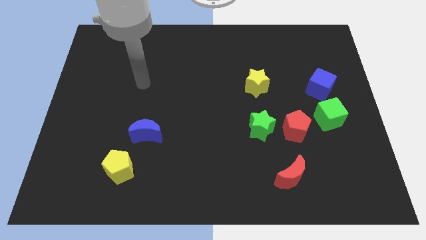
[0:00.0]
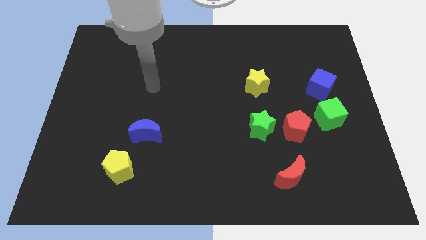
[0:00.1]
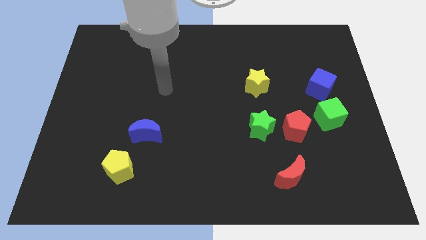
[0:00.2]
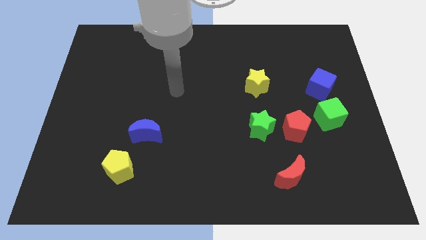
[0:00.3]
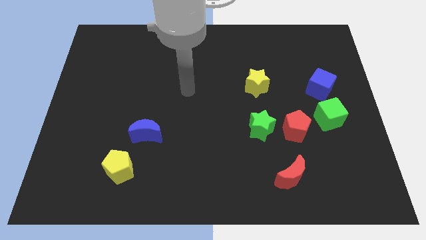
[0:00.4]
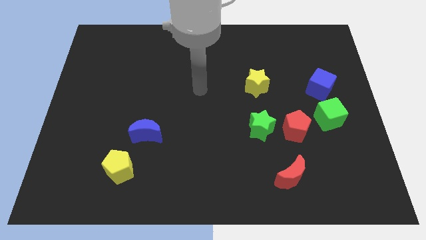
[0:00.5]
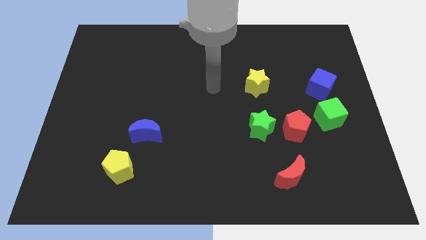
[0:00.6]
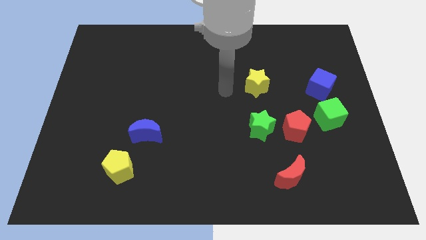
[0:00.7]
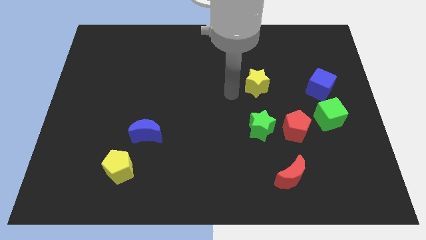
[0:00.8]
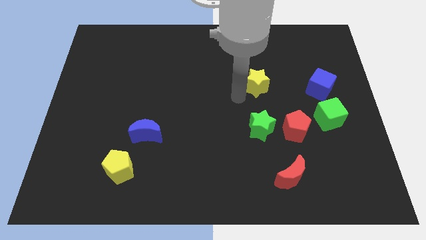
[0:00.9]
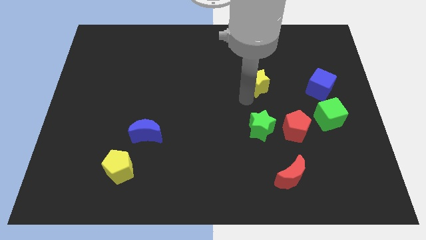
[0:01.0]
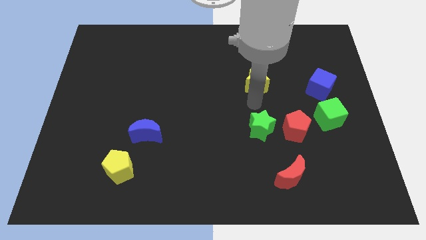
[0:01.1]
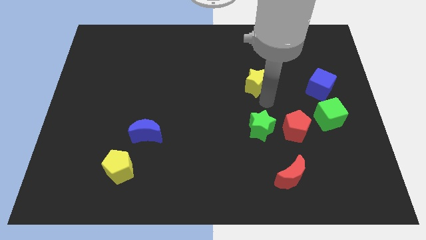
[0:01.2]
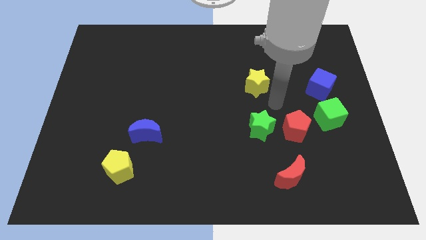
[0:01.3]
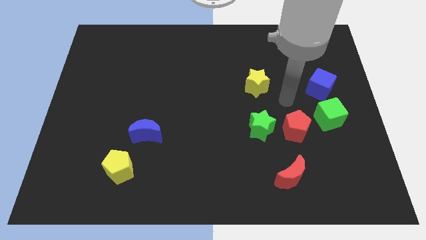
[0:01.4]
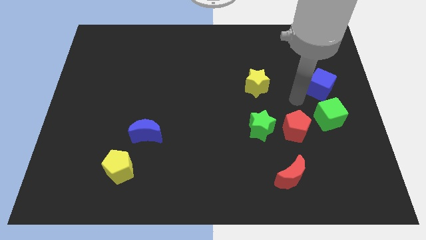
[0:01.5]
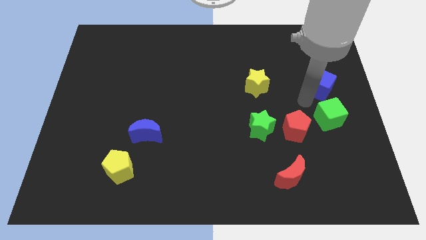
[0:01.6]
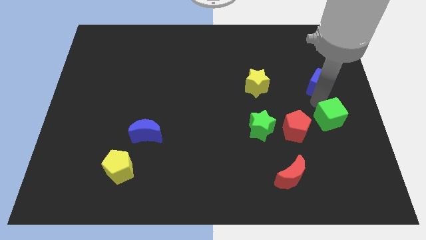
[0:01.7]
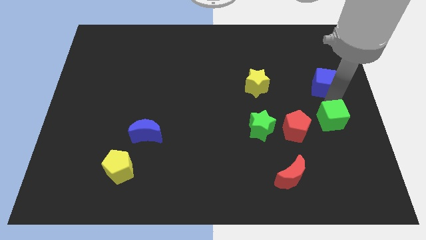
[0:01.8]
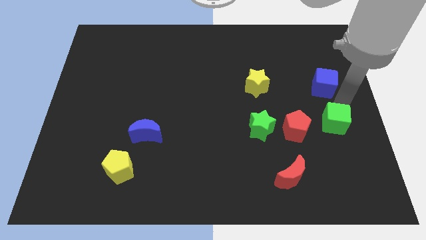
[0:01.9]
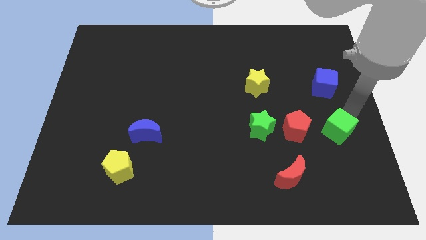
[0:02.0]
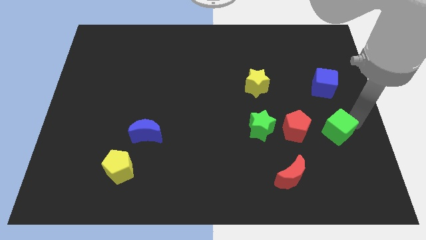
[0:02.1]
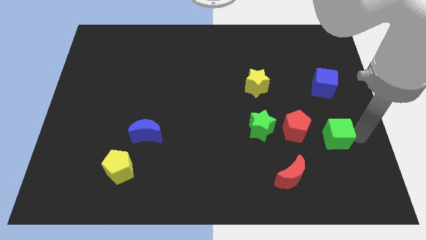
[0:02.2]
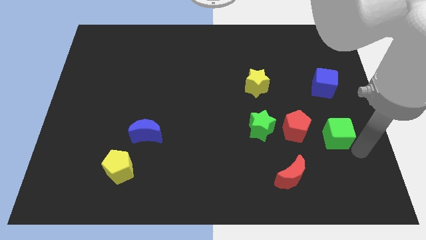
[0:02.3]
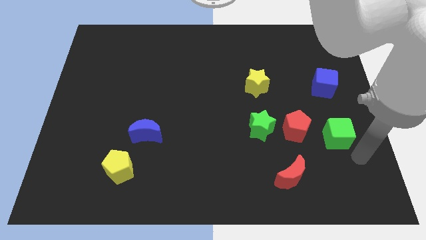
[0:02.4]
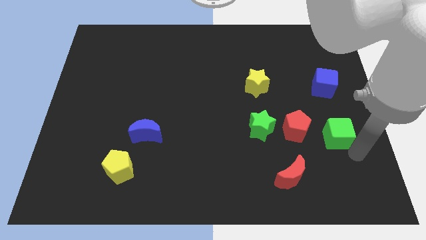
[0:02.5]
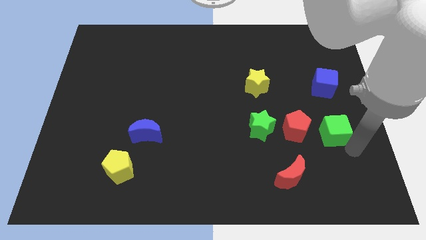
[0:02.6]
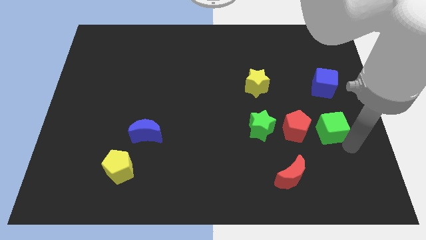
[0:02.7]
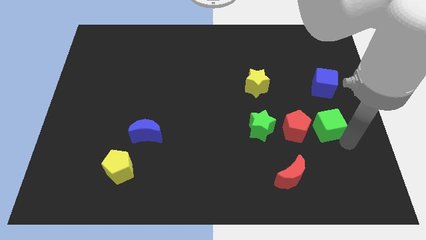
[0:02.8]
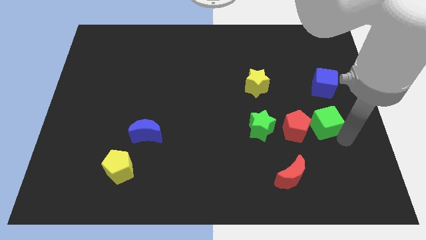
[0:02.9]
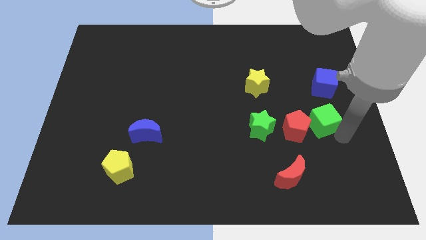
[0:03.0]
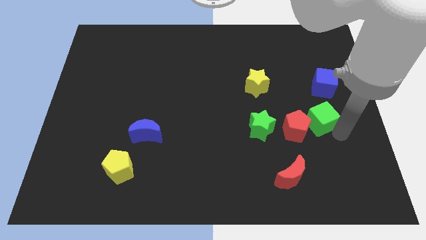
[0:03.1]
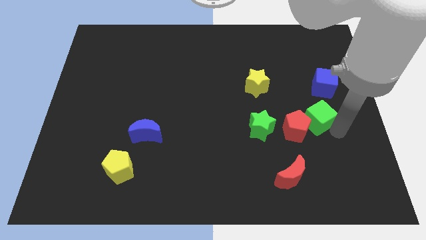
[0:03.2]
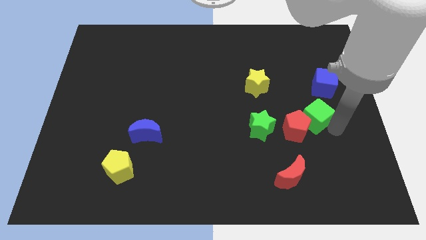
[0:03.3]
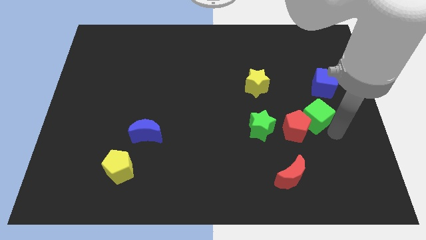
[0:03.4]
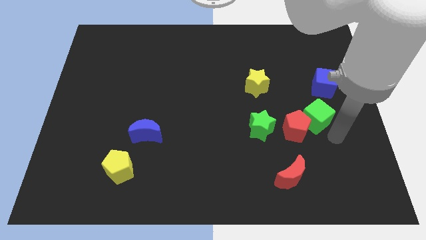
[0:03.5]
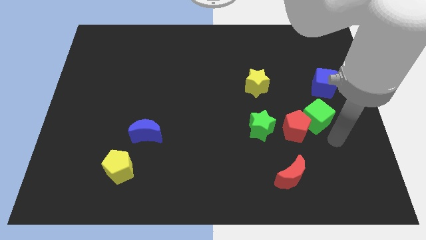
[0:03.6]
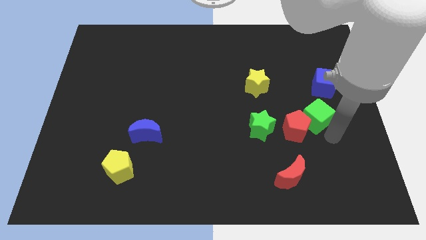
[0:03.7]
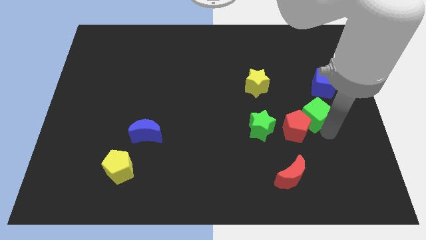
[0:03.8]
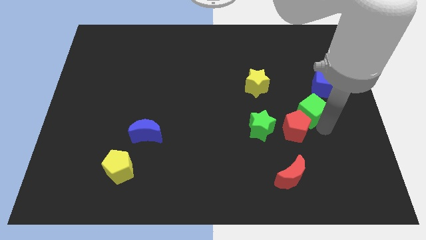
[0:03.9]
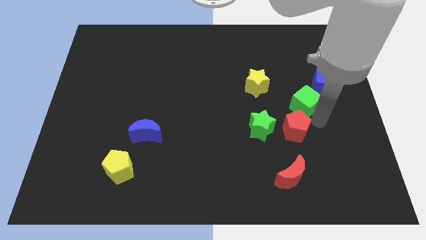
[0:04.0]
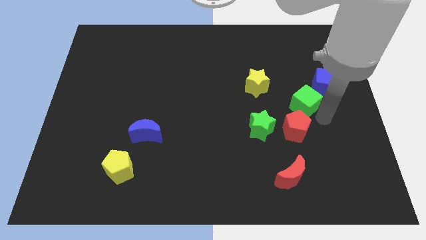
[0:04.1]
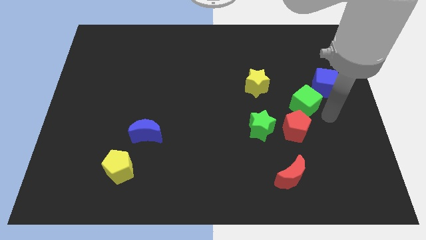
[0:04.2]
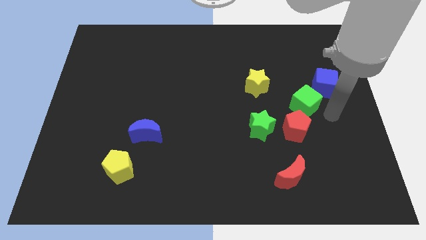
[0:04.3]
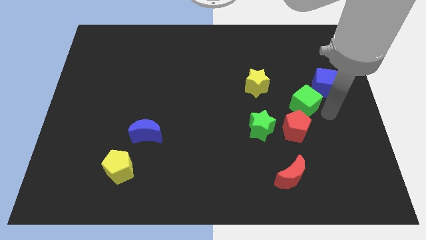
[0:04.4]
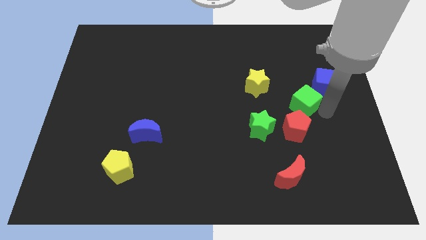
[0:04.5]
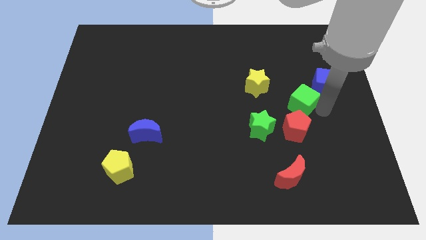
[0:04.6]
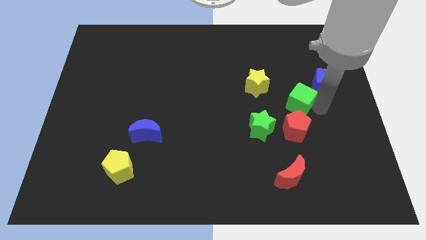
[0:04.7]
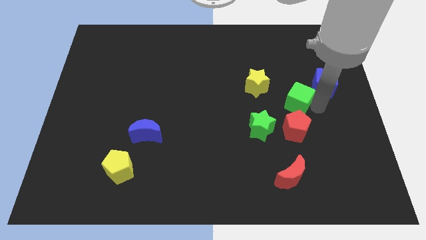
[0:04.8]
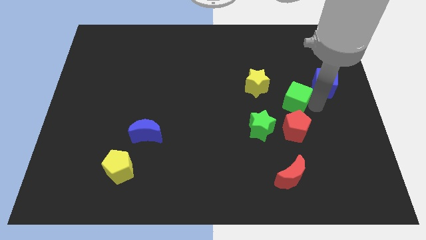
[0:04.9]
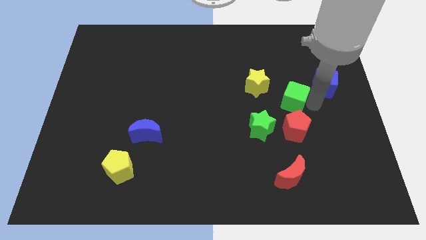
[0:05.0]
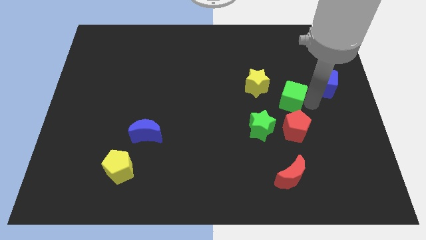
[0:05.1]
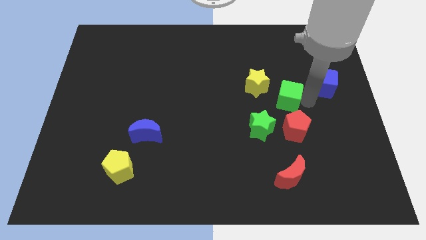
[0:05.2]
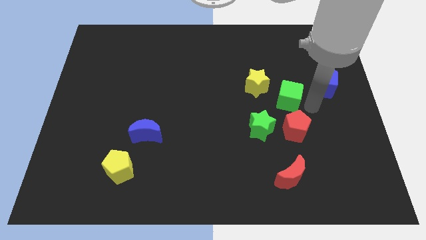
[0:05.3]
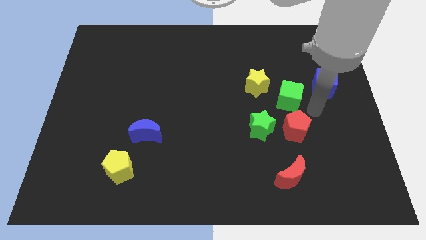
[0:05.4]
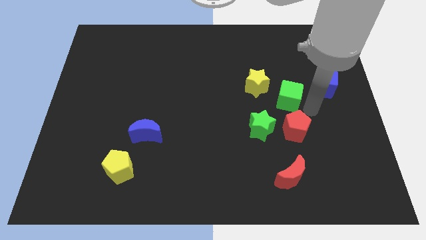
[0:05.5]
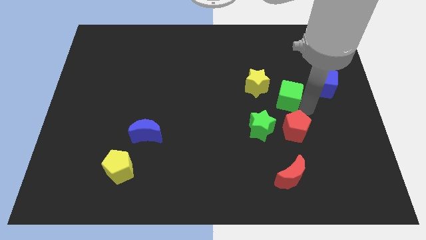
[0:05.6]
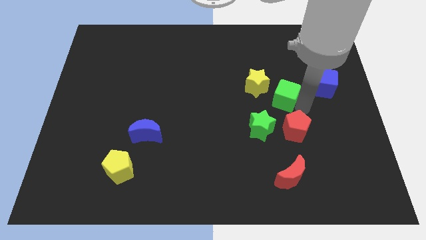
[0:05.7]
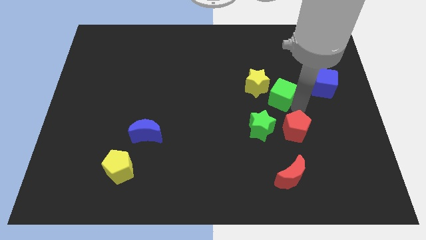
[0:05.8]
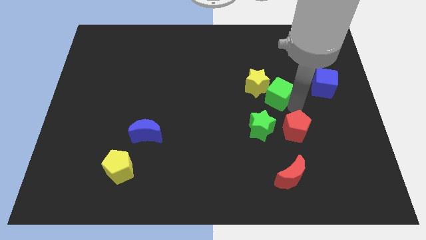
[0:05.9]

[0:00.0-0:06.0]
push the green cube next to the yellow star
